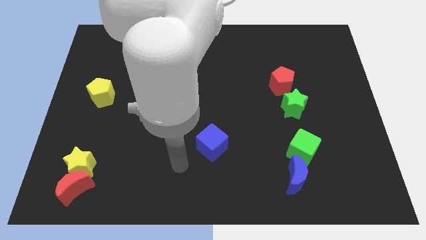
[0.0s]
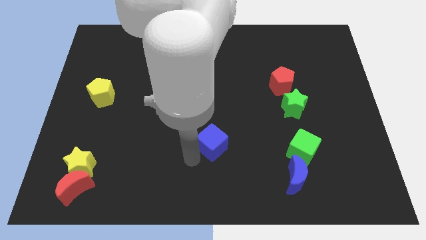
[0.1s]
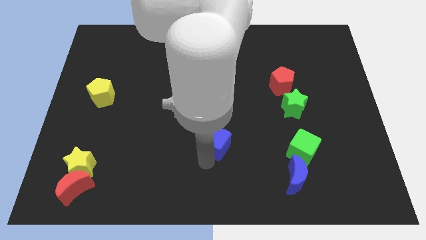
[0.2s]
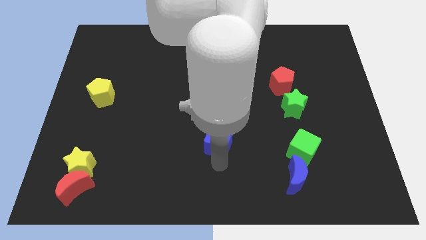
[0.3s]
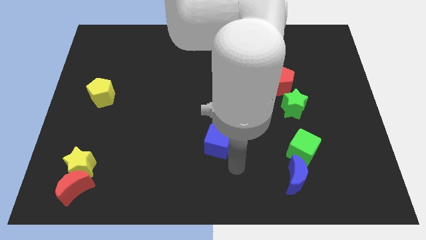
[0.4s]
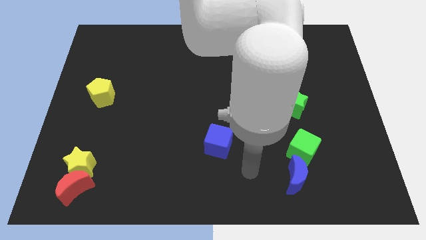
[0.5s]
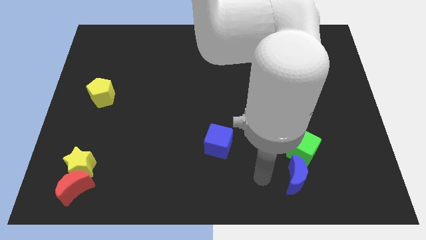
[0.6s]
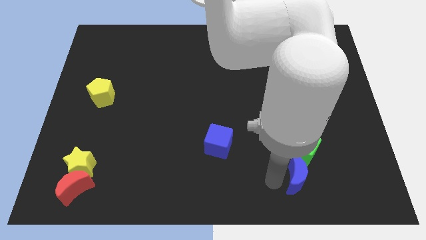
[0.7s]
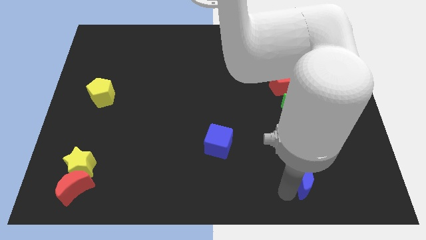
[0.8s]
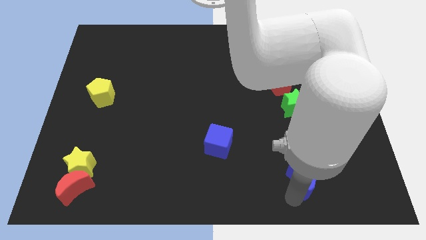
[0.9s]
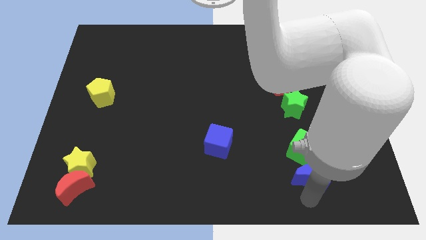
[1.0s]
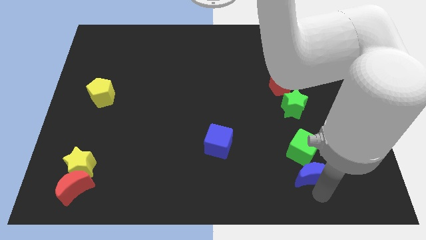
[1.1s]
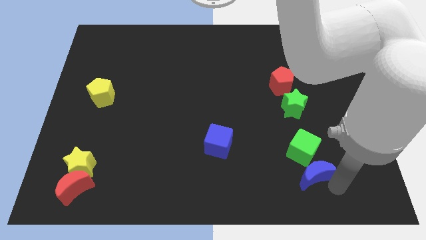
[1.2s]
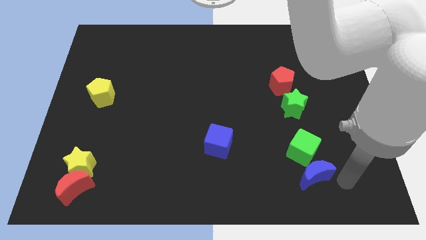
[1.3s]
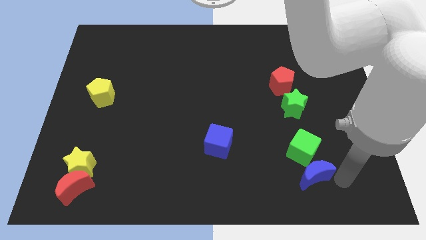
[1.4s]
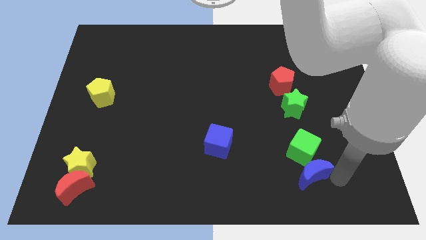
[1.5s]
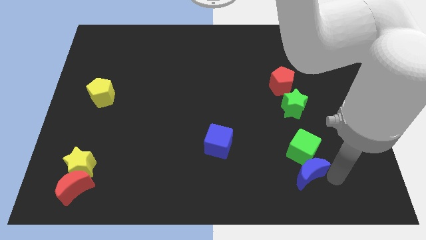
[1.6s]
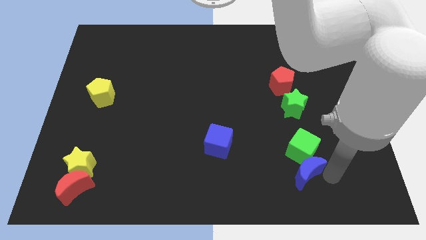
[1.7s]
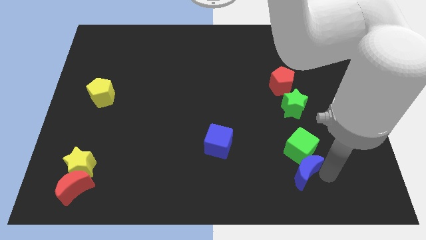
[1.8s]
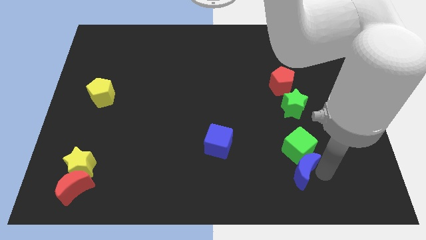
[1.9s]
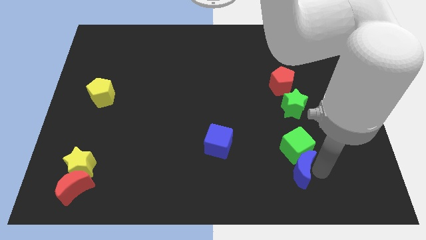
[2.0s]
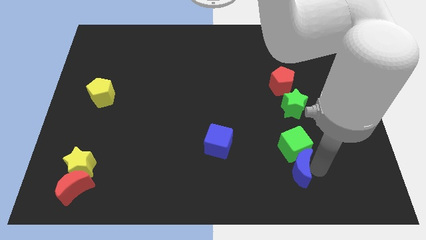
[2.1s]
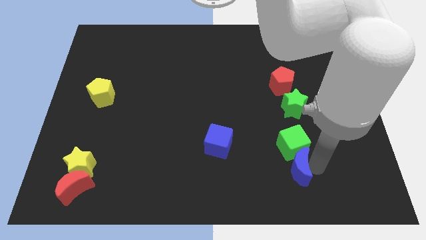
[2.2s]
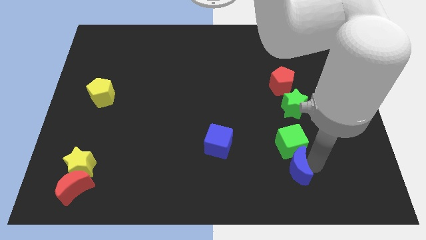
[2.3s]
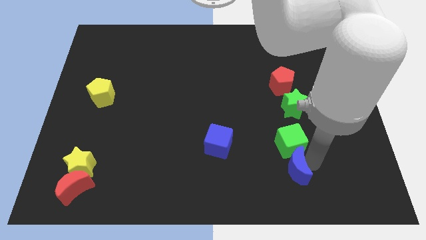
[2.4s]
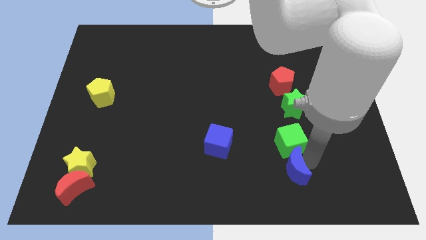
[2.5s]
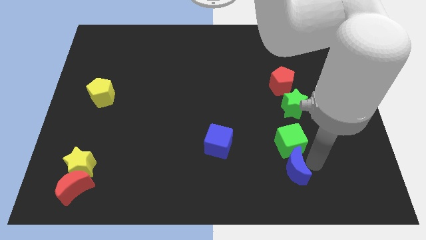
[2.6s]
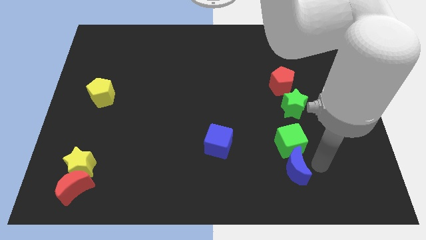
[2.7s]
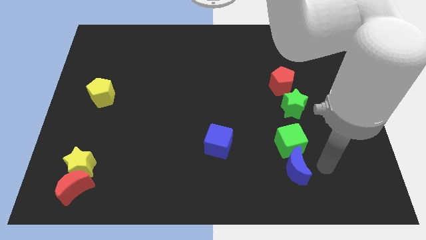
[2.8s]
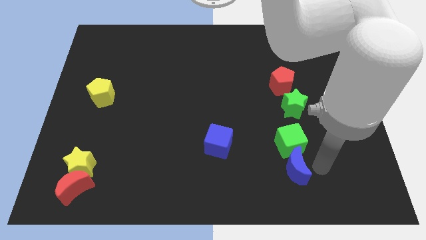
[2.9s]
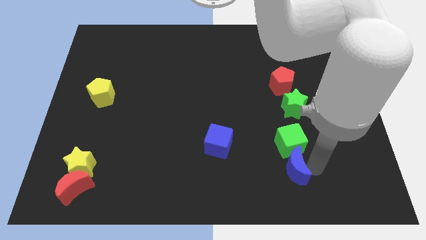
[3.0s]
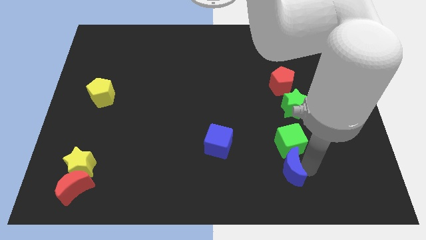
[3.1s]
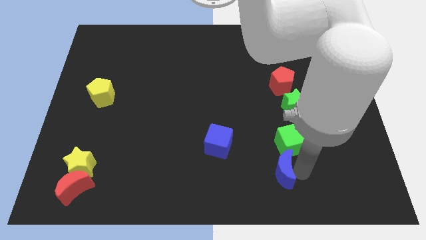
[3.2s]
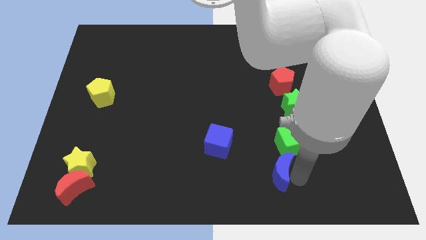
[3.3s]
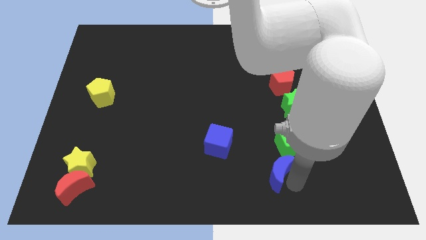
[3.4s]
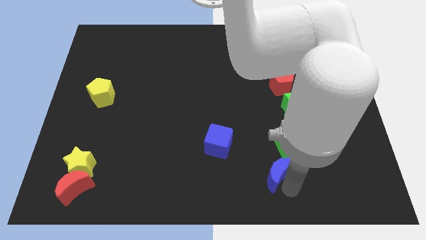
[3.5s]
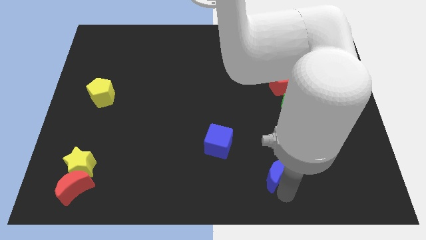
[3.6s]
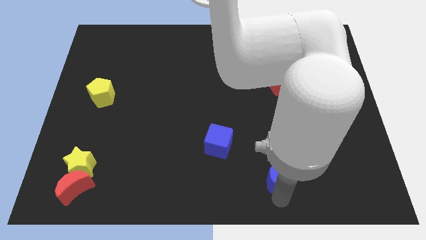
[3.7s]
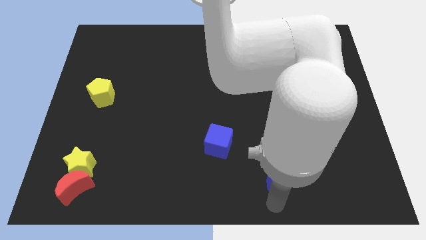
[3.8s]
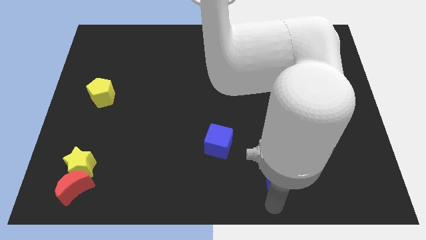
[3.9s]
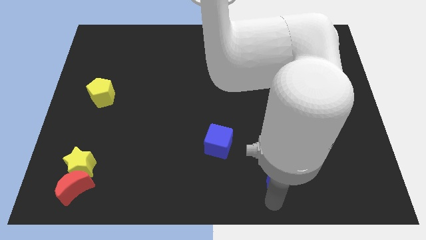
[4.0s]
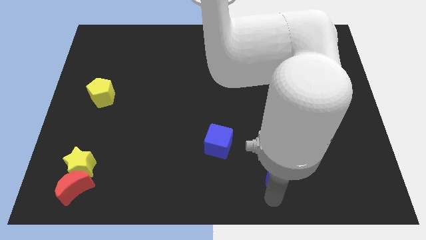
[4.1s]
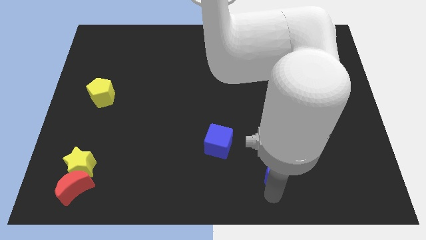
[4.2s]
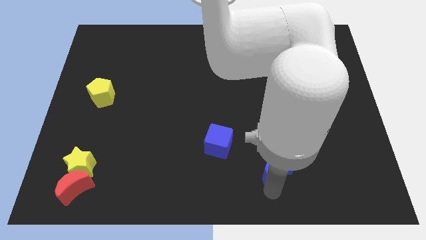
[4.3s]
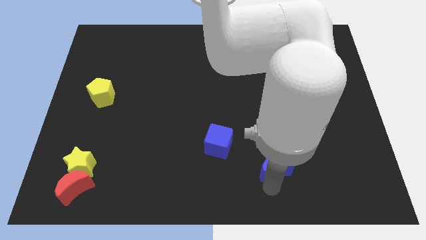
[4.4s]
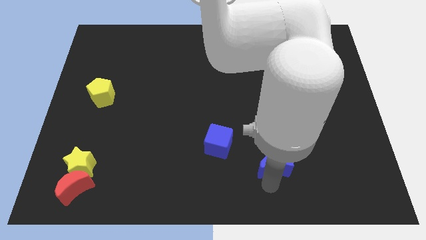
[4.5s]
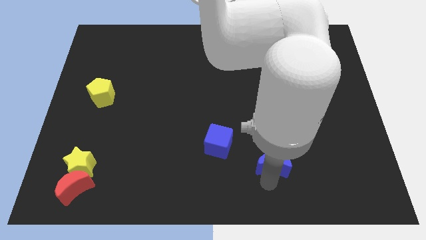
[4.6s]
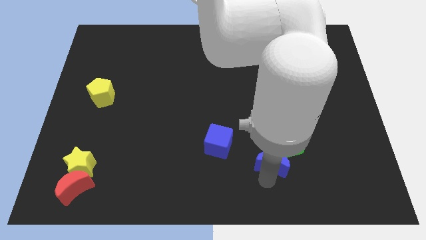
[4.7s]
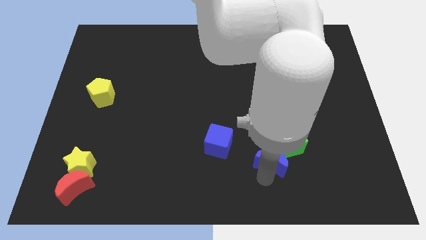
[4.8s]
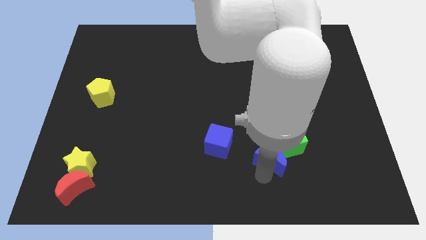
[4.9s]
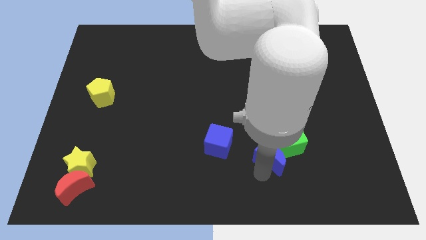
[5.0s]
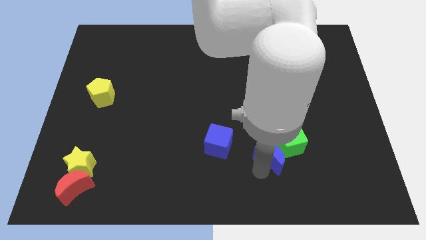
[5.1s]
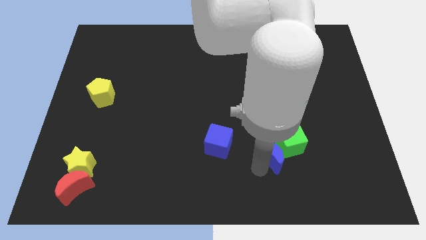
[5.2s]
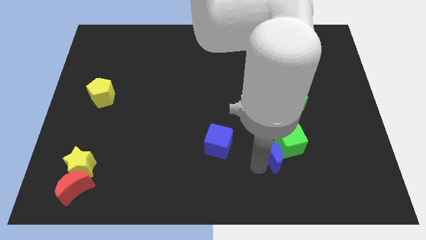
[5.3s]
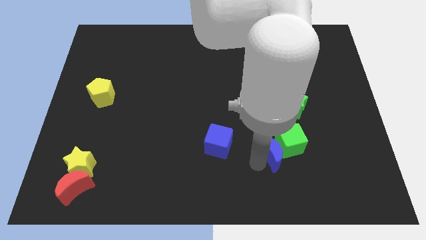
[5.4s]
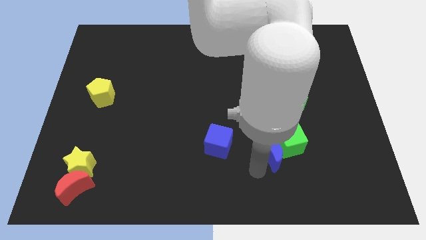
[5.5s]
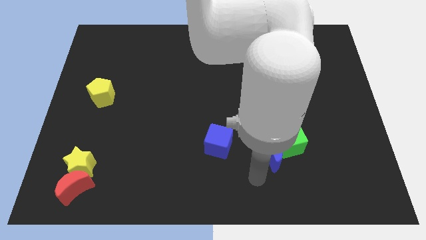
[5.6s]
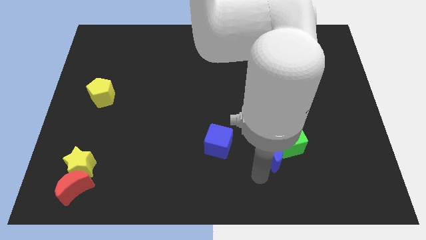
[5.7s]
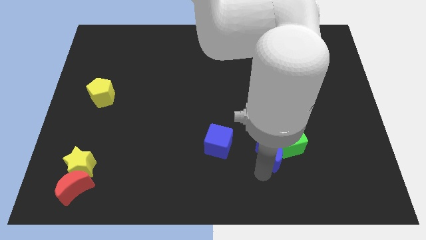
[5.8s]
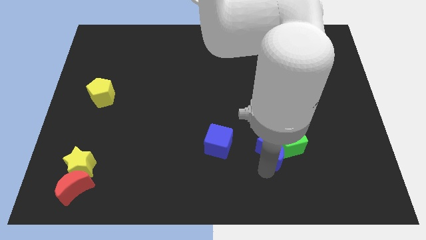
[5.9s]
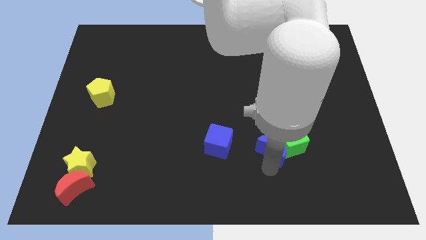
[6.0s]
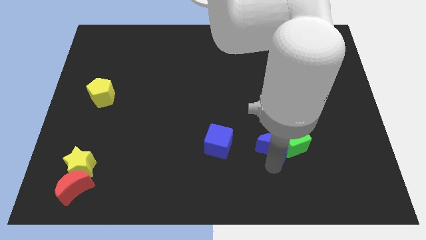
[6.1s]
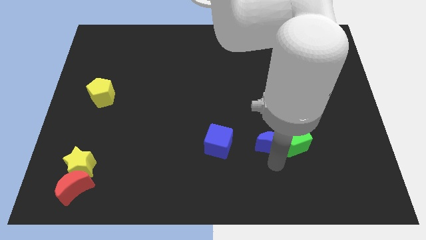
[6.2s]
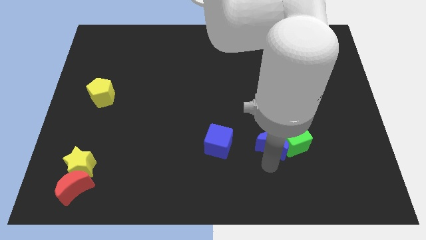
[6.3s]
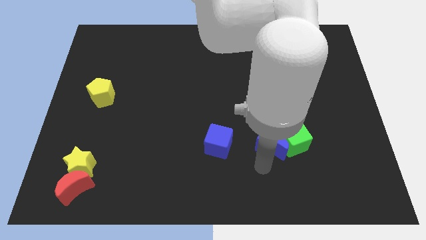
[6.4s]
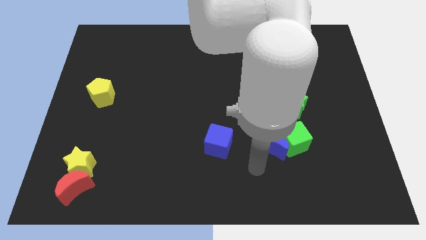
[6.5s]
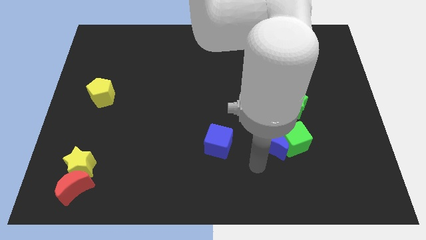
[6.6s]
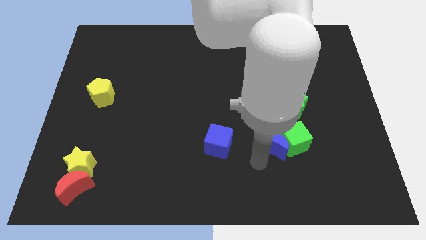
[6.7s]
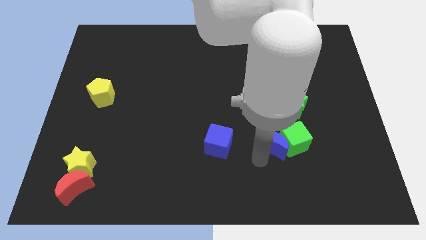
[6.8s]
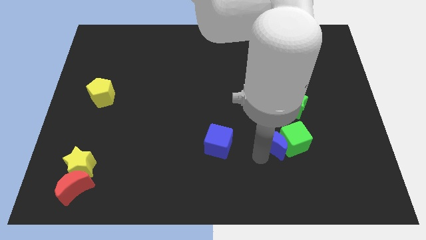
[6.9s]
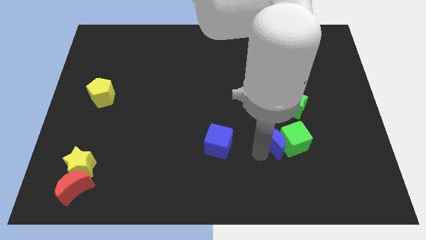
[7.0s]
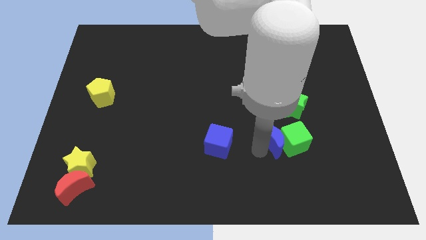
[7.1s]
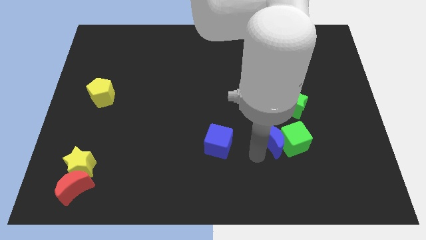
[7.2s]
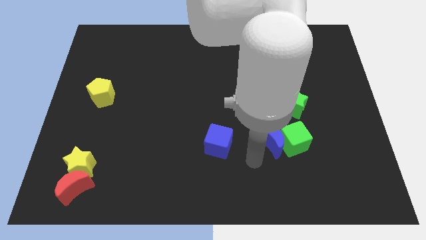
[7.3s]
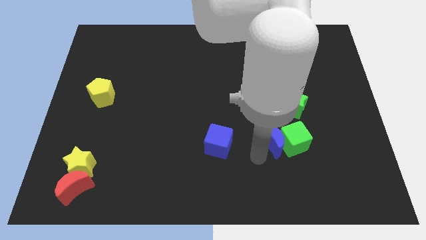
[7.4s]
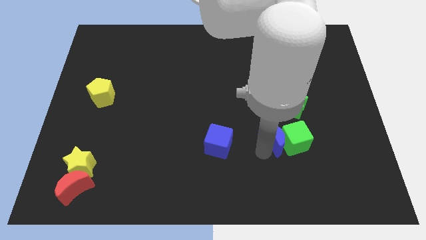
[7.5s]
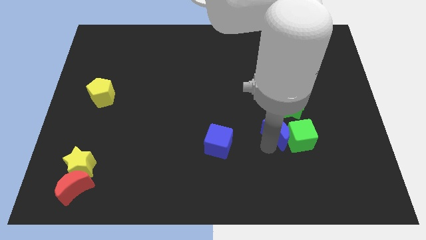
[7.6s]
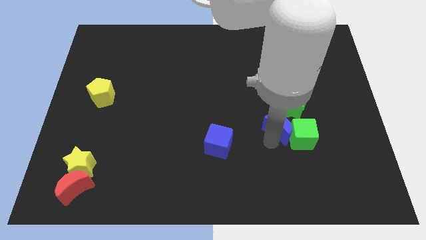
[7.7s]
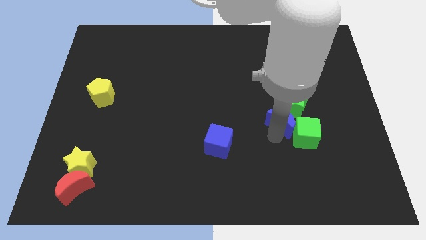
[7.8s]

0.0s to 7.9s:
move the blue moon towards the green star
